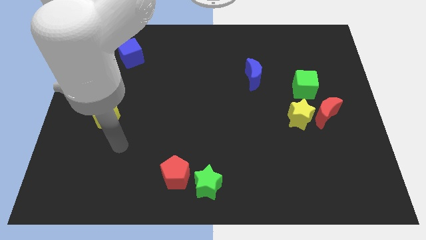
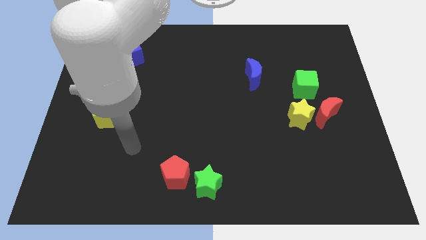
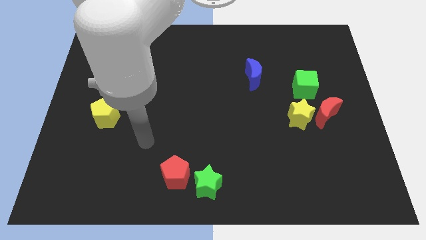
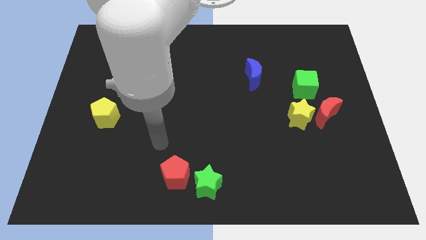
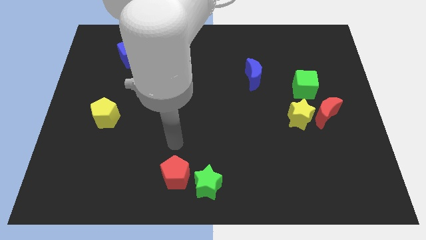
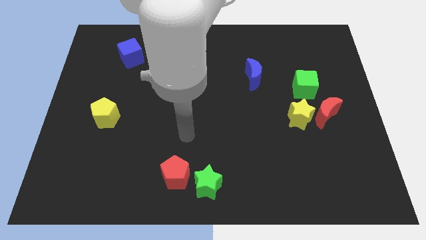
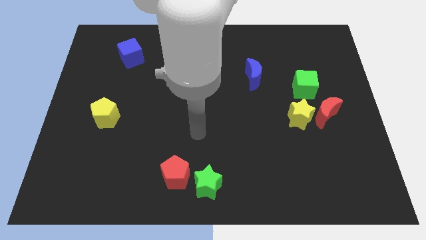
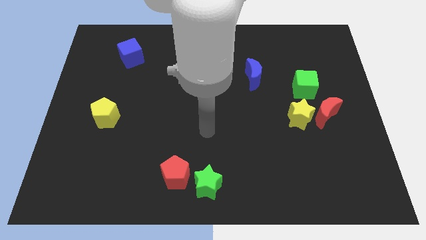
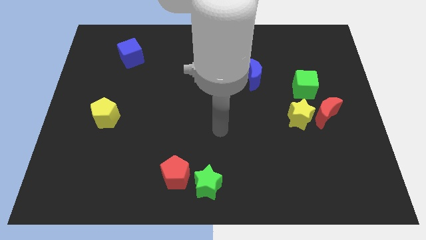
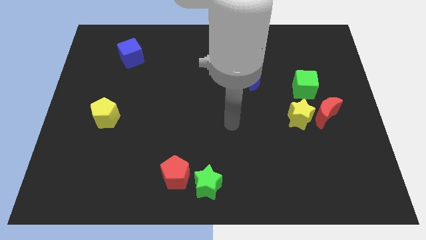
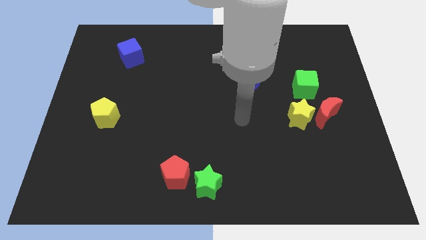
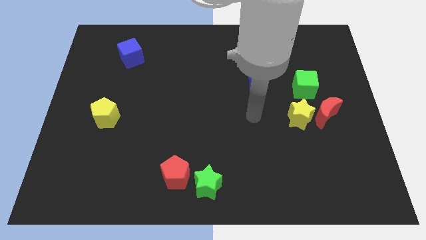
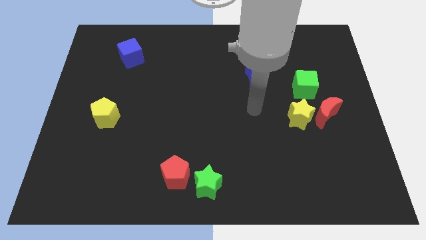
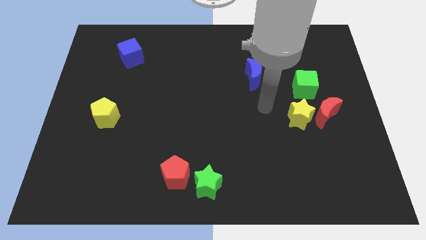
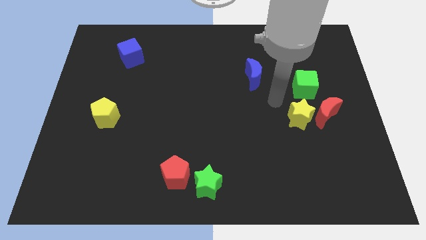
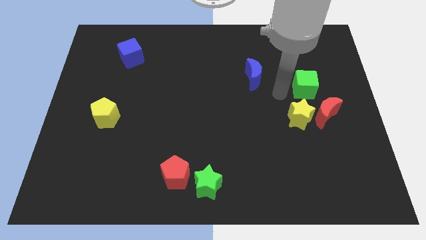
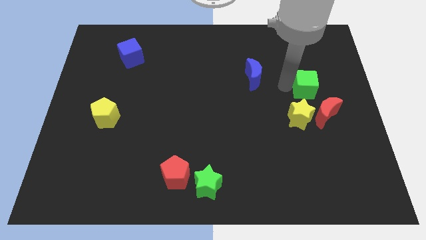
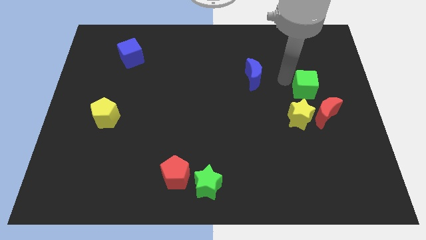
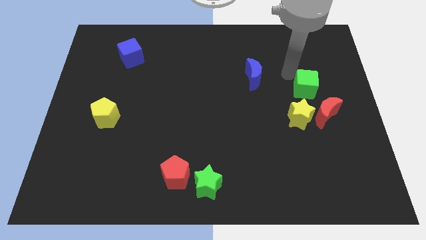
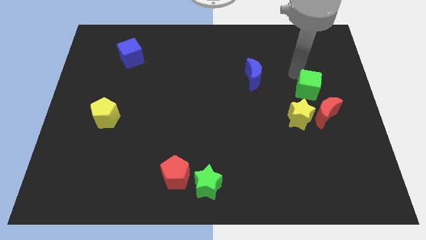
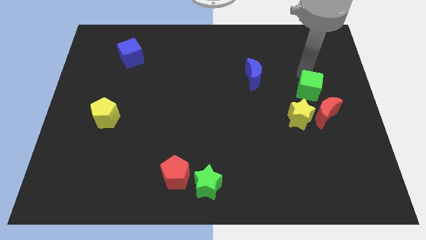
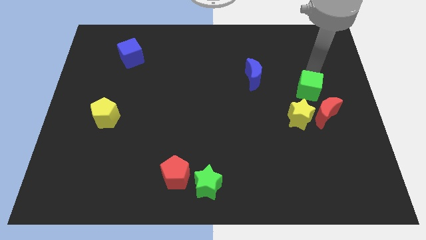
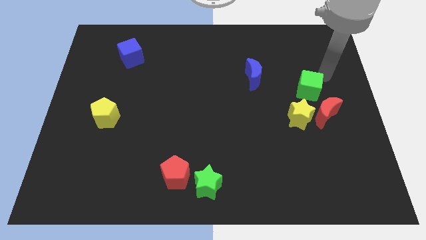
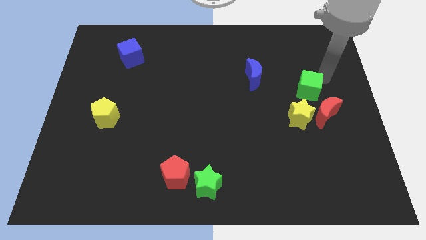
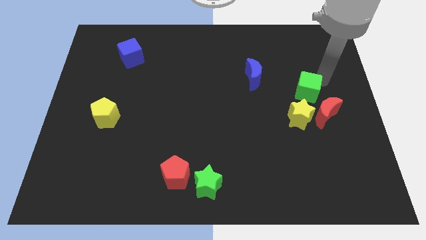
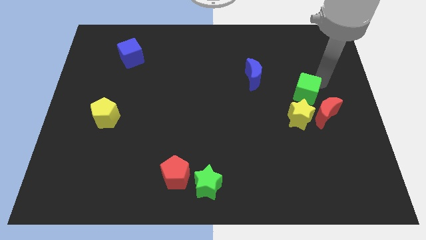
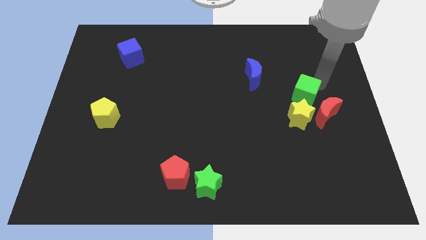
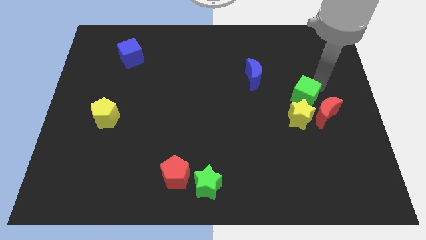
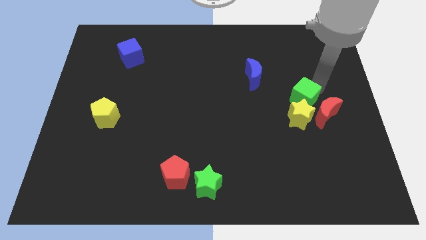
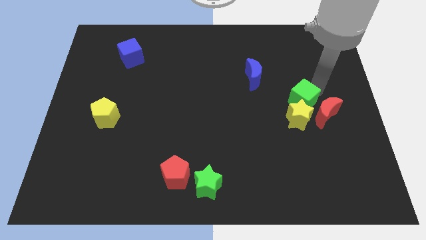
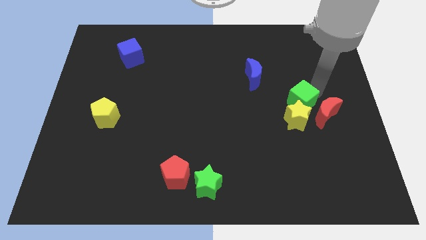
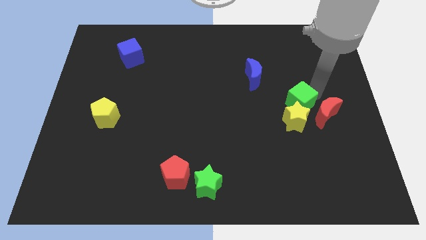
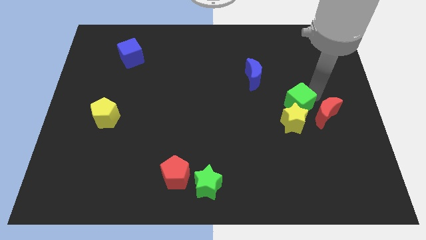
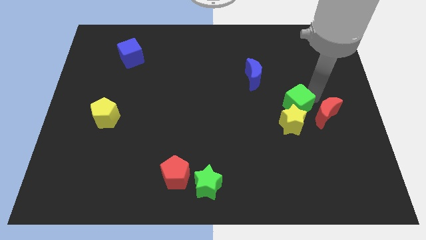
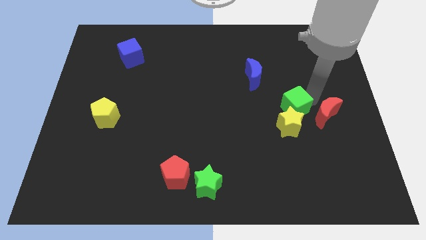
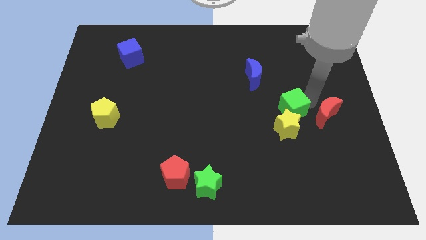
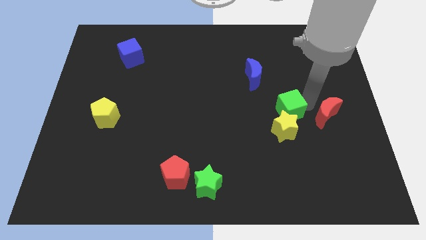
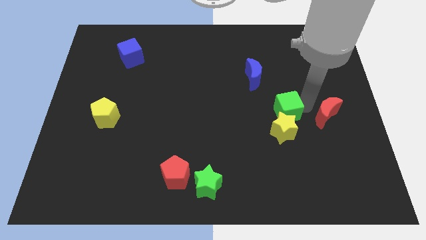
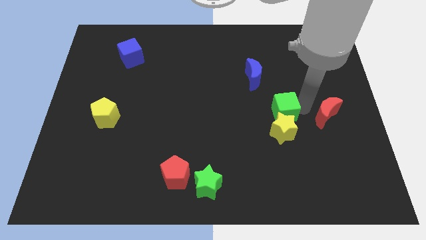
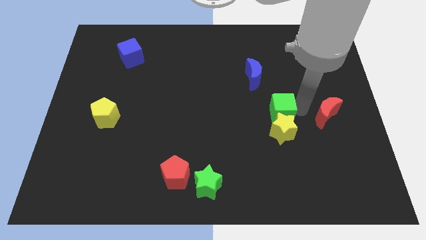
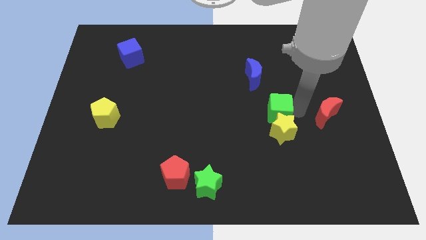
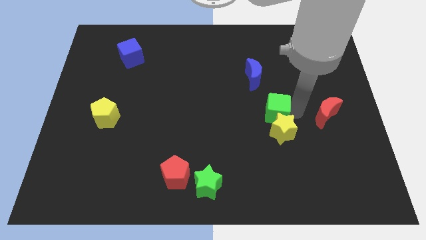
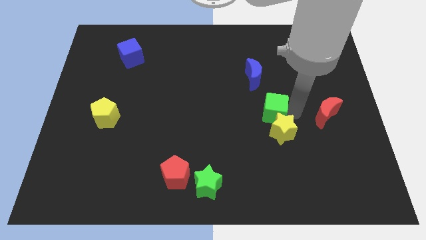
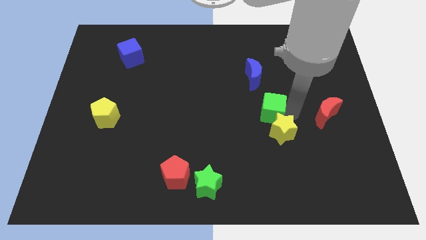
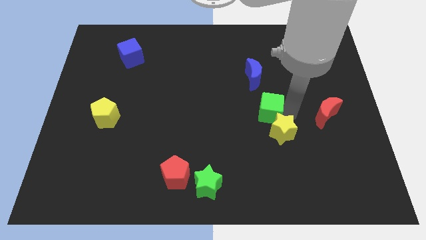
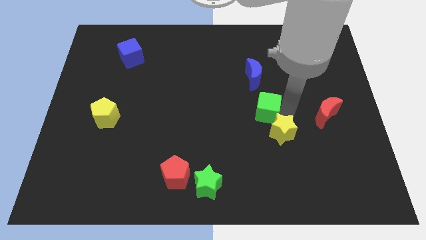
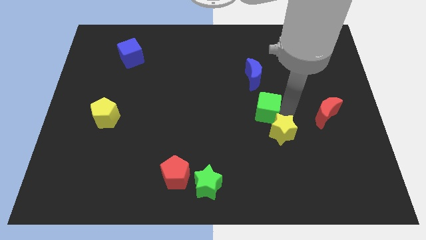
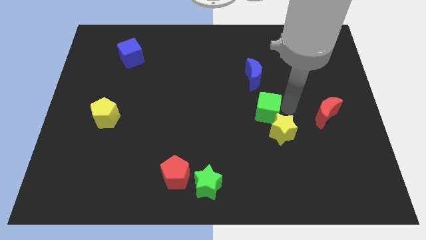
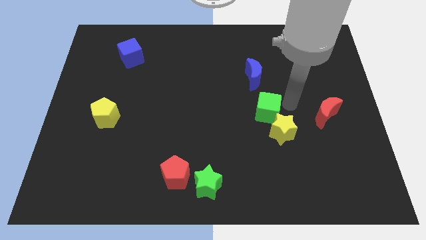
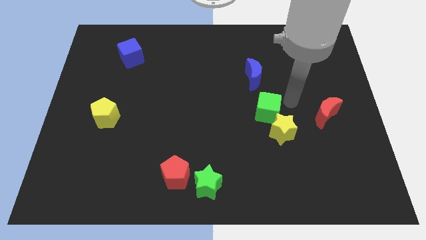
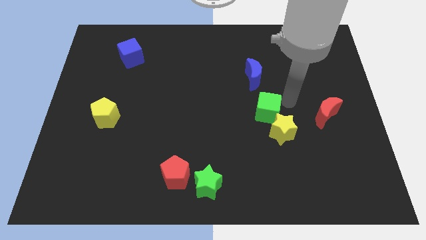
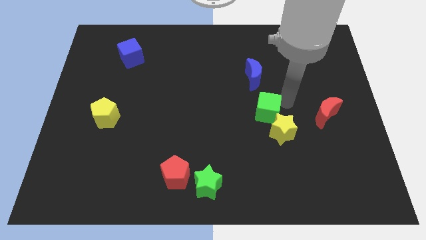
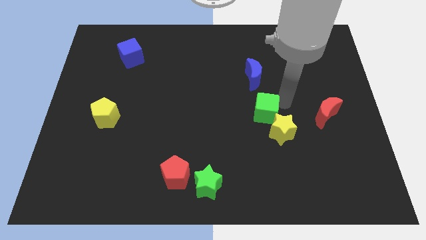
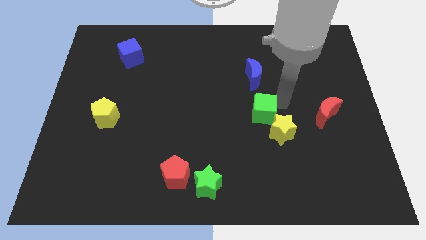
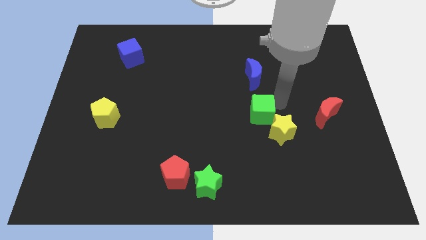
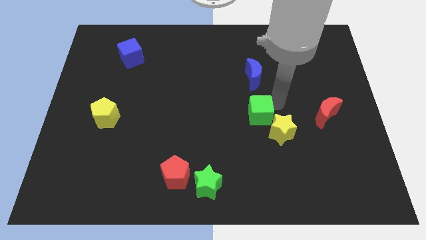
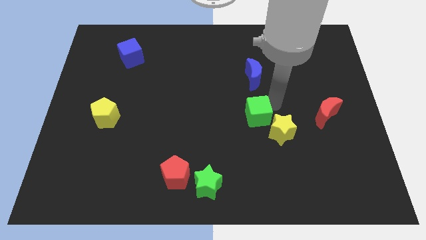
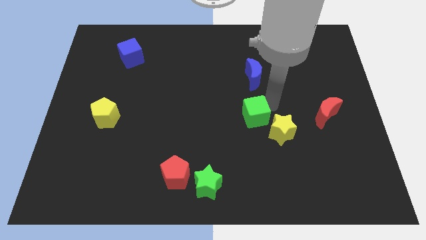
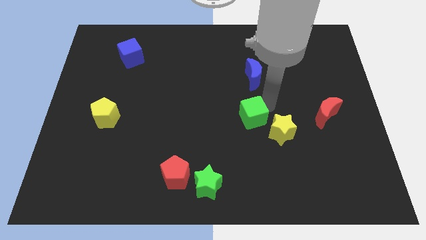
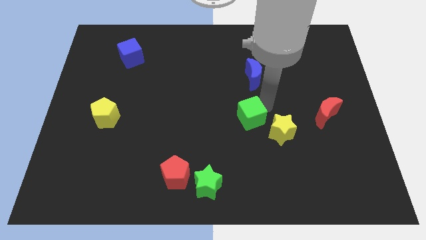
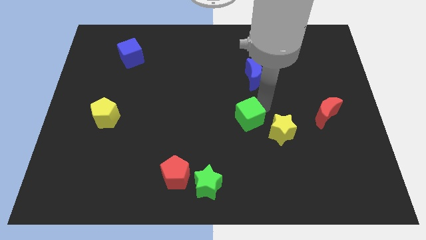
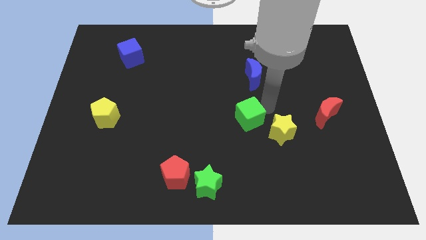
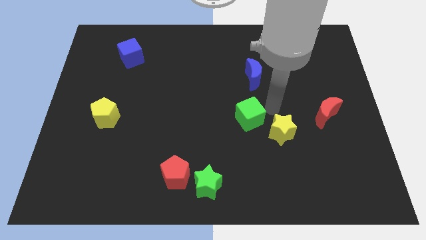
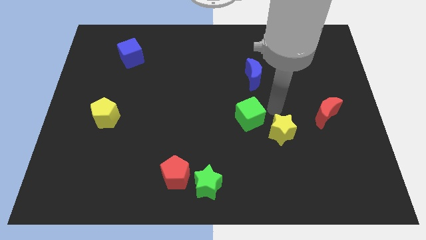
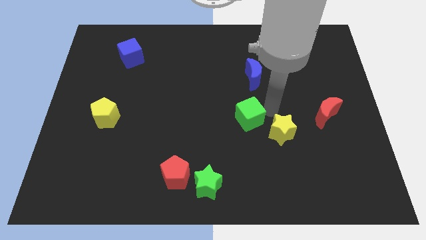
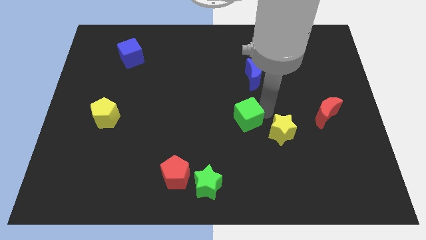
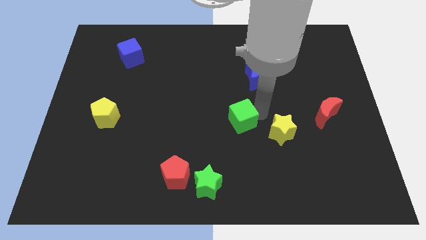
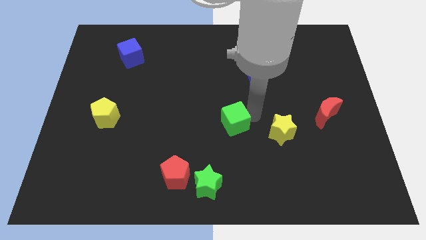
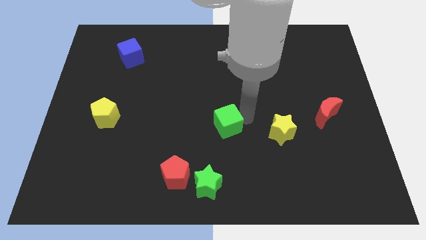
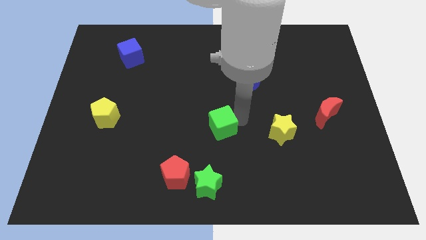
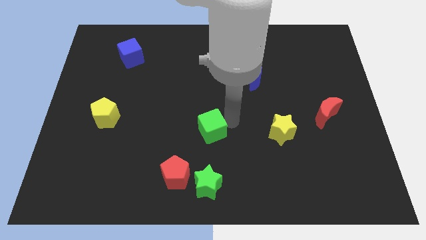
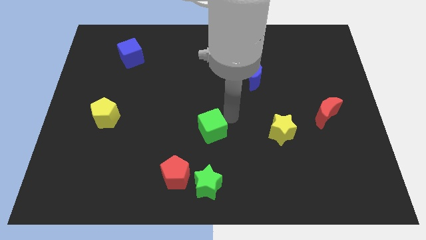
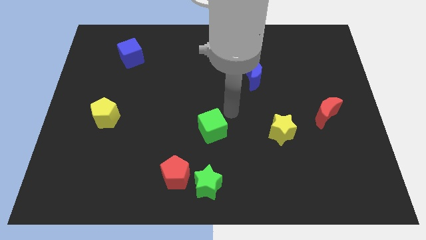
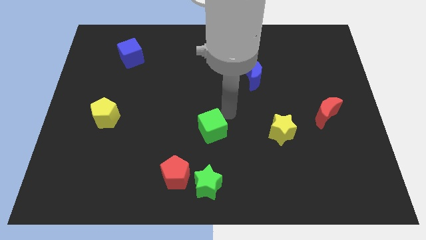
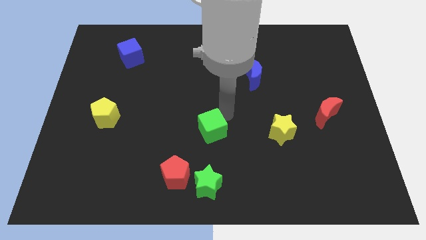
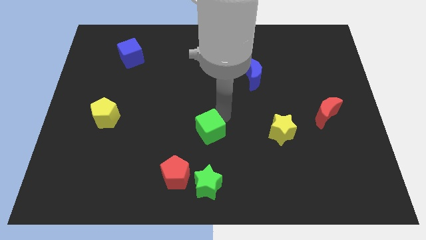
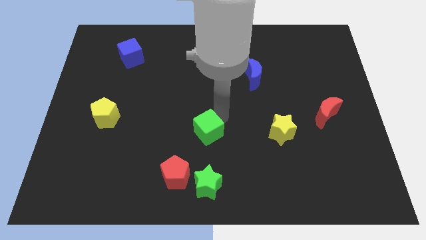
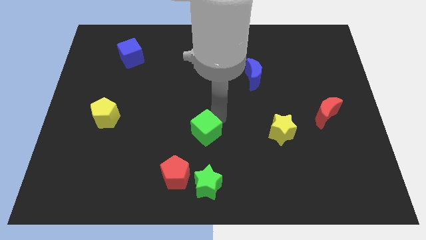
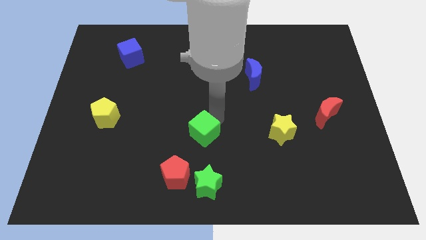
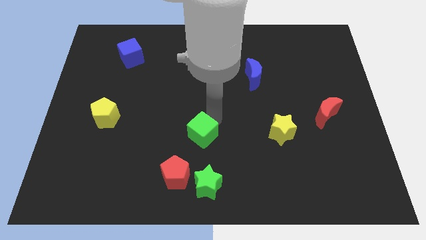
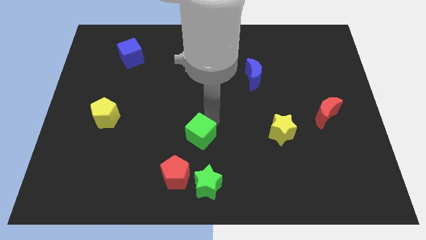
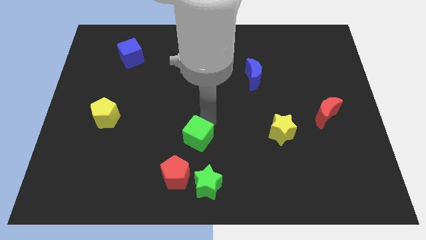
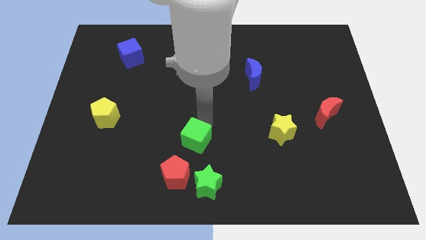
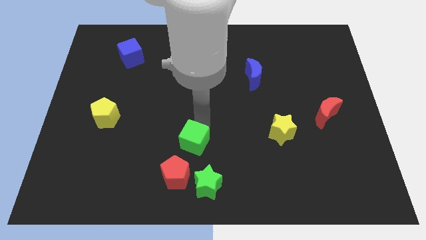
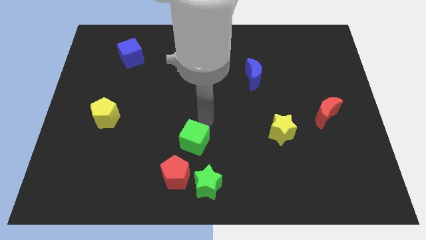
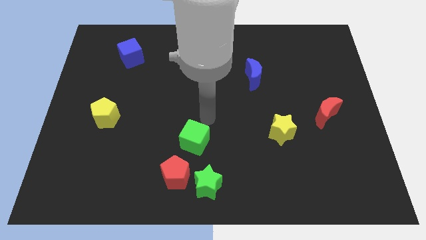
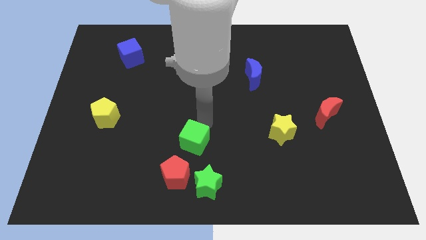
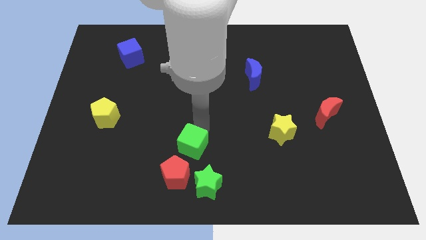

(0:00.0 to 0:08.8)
move the green cube diagonally up and to the left of the green star
